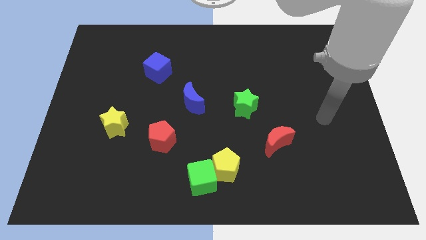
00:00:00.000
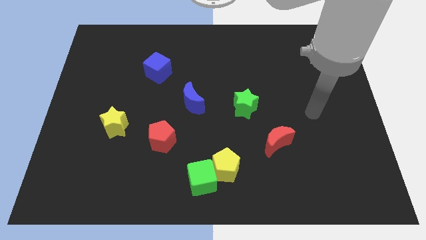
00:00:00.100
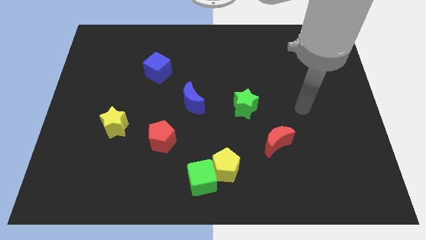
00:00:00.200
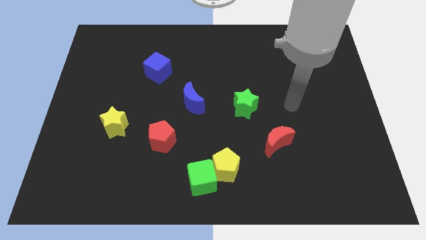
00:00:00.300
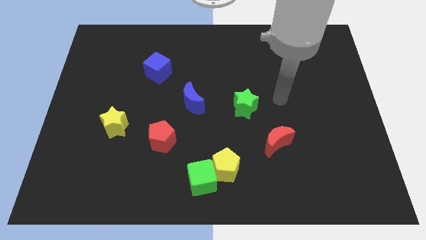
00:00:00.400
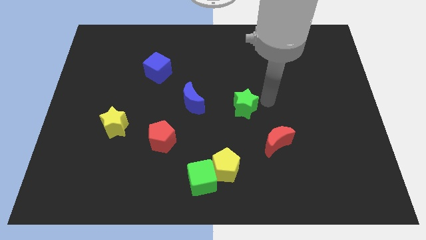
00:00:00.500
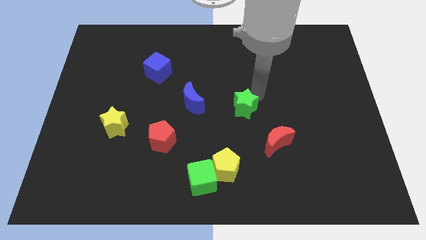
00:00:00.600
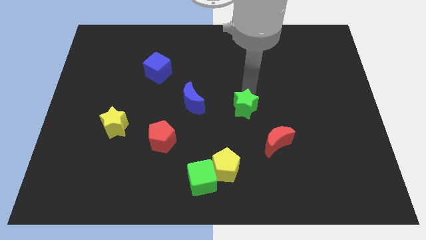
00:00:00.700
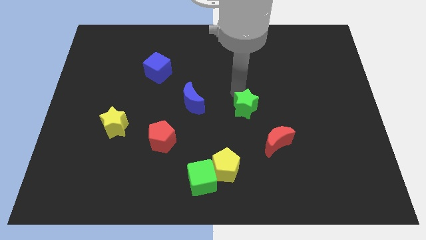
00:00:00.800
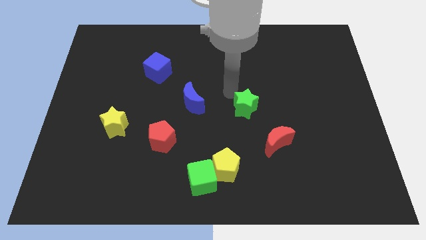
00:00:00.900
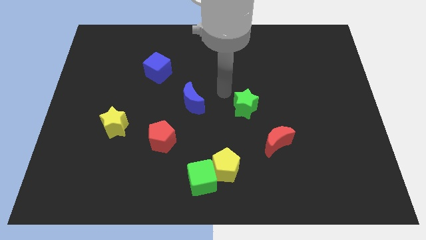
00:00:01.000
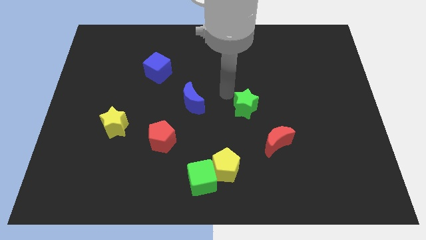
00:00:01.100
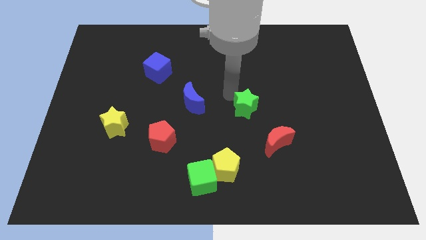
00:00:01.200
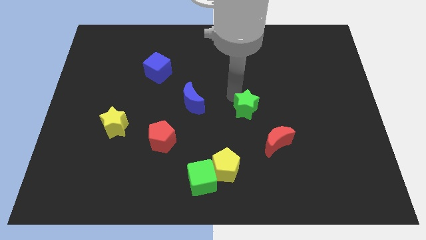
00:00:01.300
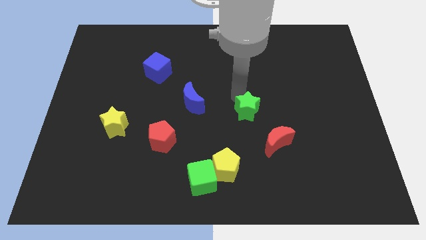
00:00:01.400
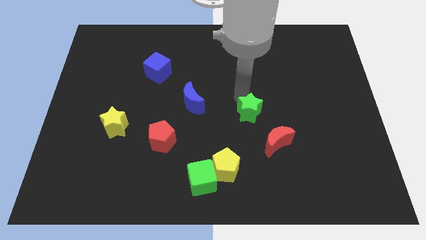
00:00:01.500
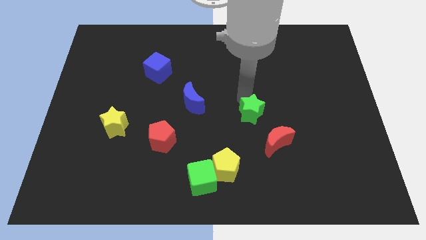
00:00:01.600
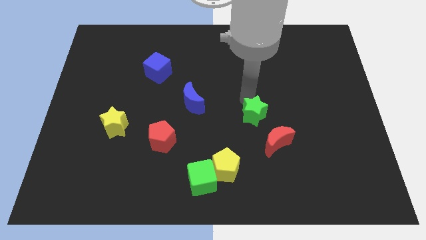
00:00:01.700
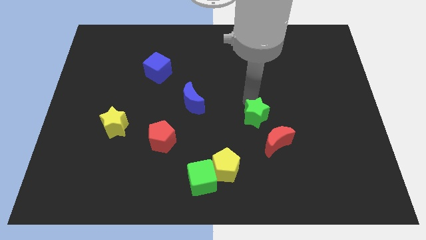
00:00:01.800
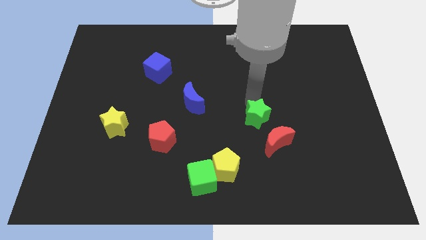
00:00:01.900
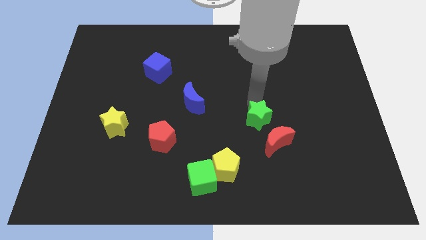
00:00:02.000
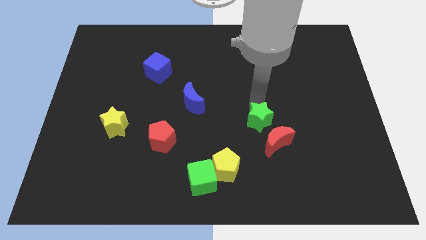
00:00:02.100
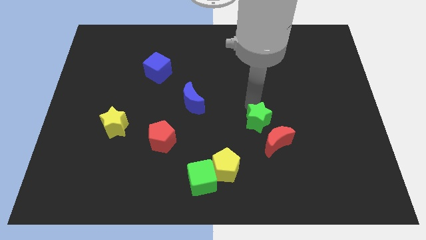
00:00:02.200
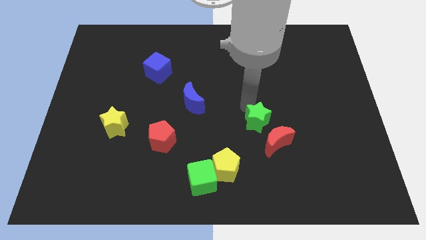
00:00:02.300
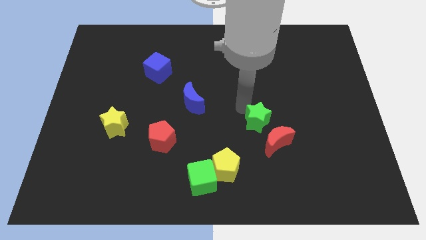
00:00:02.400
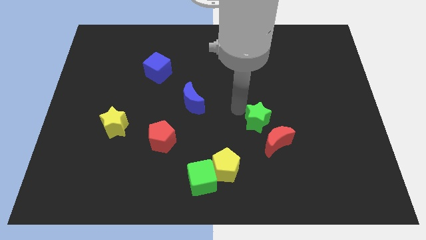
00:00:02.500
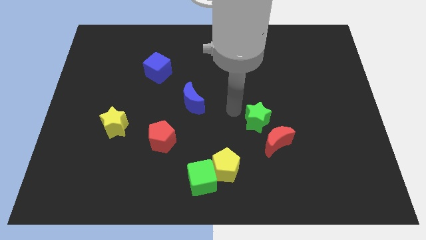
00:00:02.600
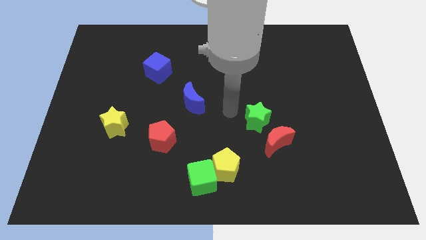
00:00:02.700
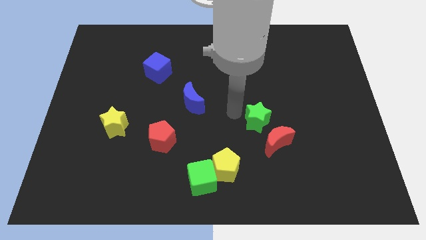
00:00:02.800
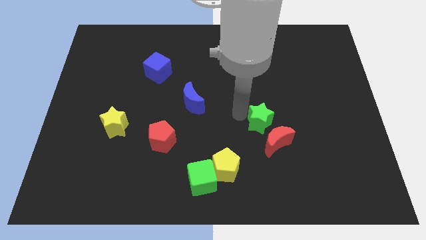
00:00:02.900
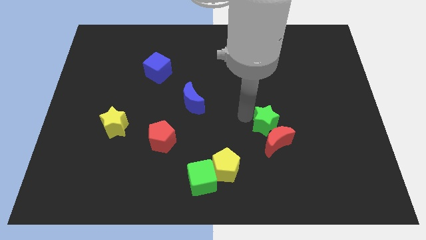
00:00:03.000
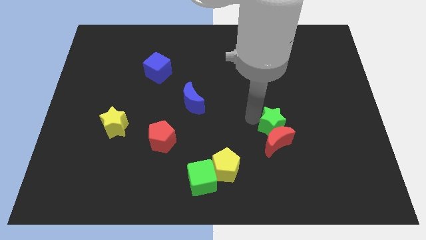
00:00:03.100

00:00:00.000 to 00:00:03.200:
push the green star a bit downwards and right

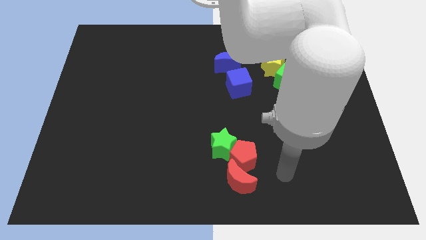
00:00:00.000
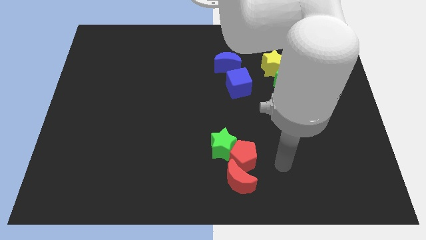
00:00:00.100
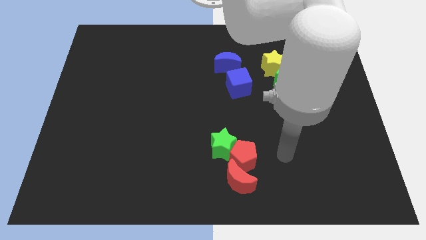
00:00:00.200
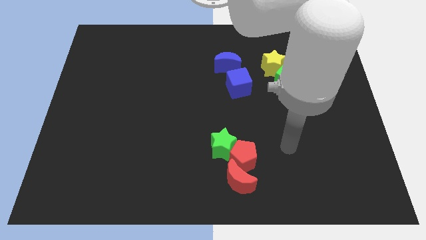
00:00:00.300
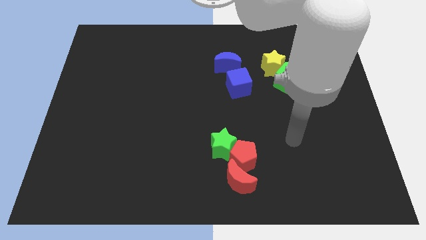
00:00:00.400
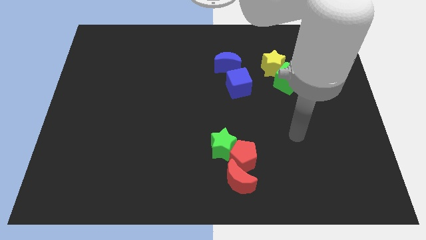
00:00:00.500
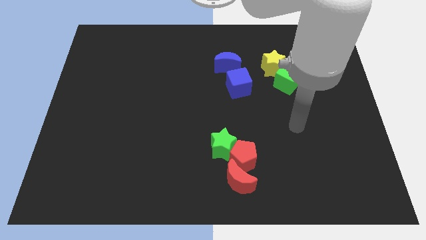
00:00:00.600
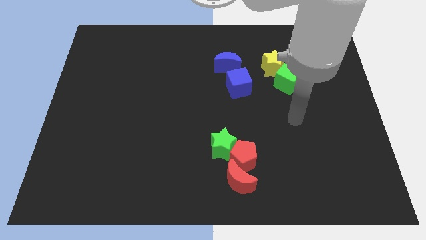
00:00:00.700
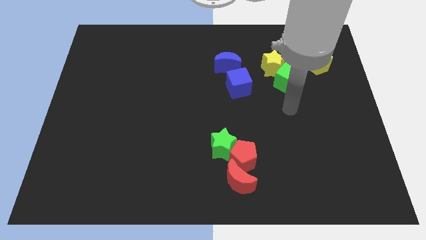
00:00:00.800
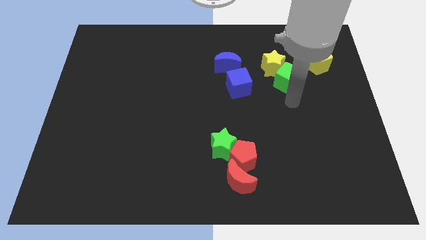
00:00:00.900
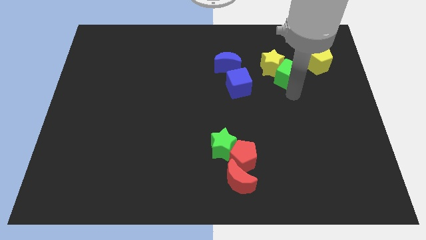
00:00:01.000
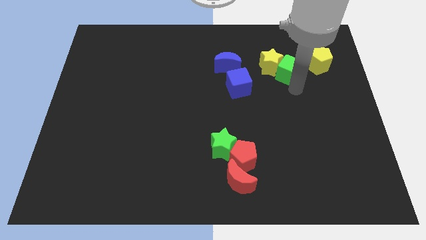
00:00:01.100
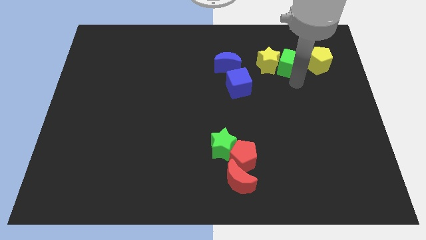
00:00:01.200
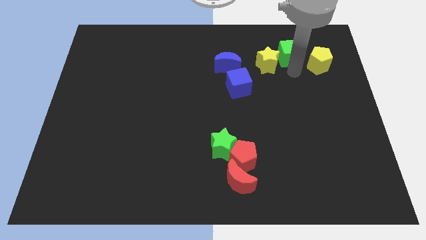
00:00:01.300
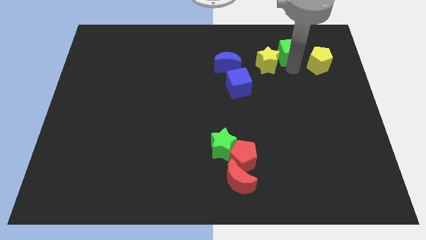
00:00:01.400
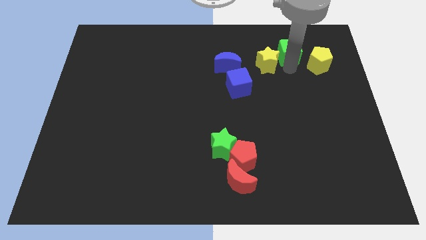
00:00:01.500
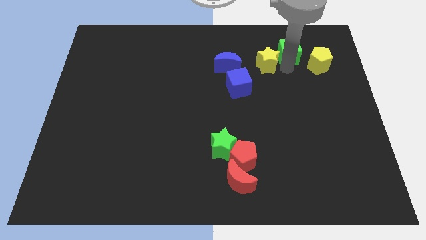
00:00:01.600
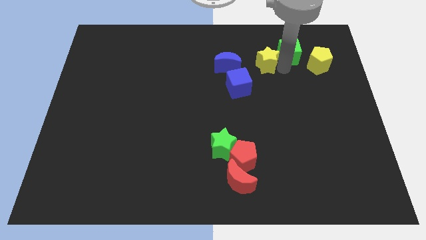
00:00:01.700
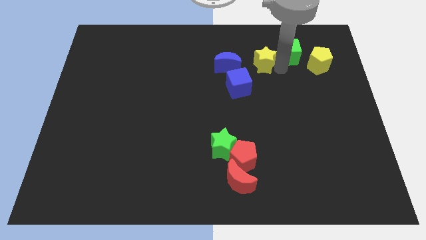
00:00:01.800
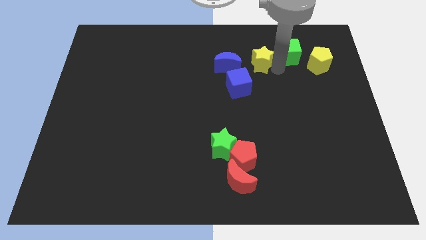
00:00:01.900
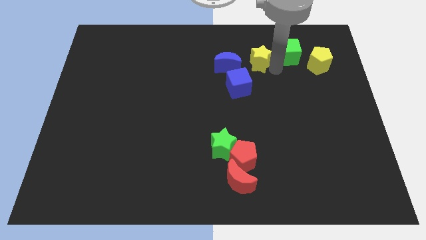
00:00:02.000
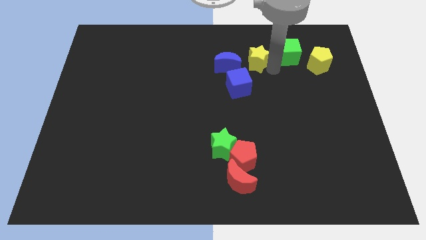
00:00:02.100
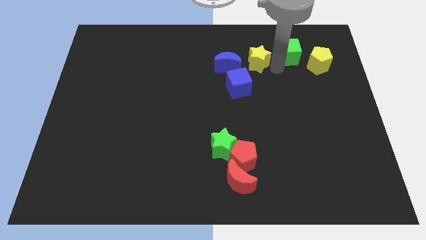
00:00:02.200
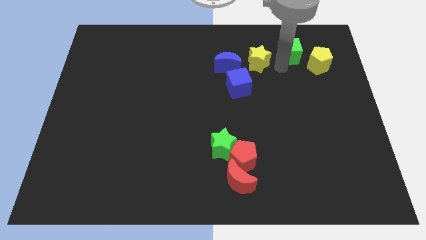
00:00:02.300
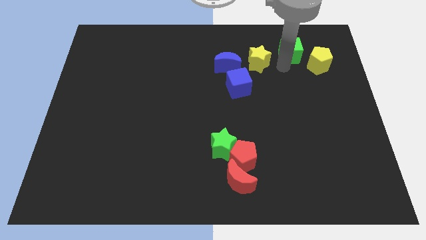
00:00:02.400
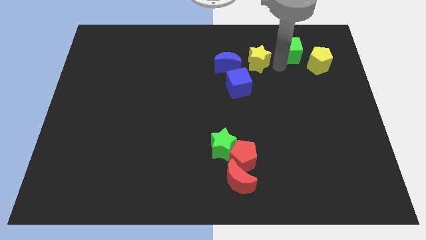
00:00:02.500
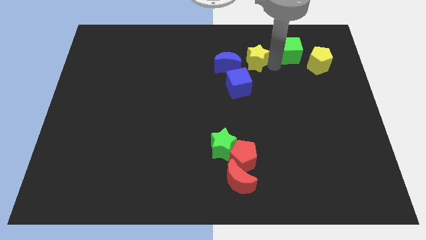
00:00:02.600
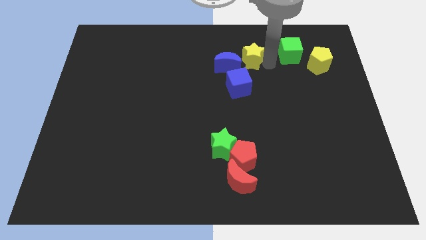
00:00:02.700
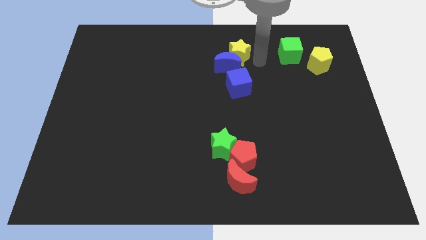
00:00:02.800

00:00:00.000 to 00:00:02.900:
slightly move the yellow star to the left

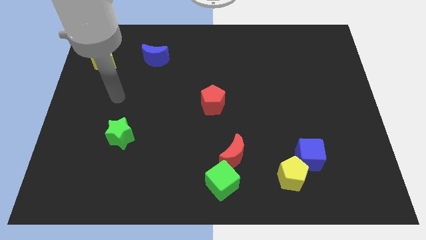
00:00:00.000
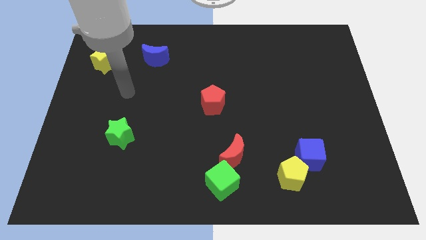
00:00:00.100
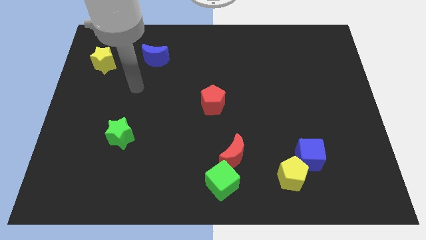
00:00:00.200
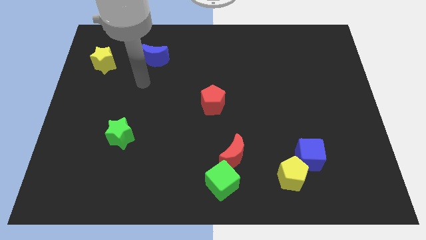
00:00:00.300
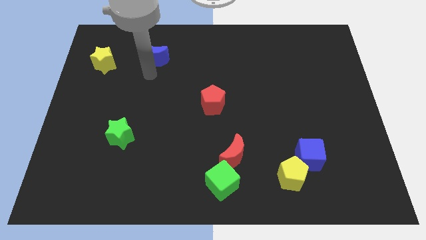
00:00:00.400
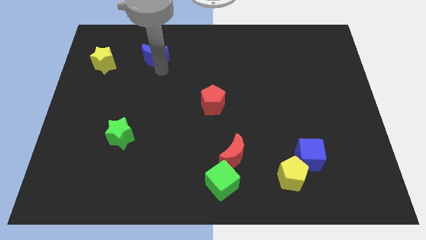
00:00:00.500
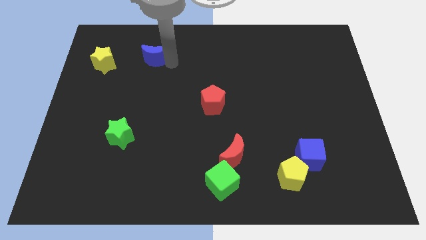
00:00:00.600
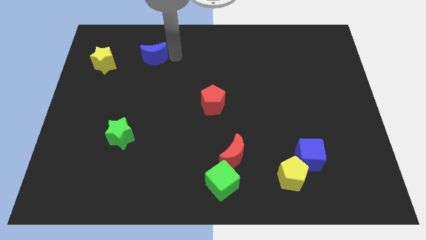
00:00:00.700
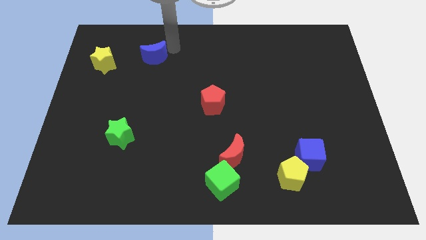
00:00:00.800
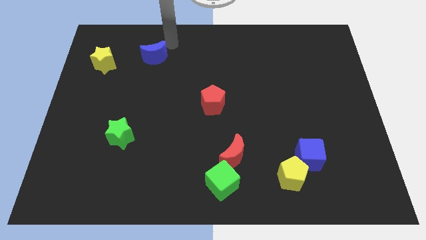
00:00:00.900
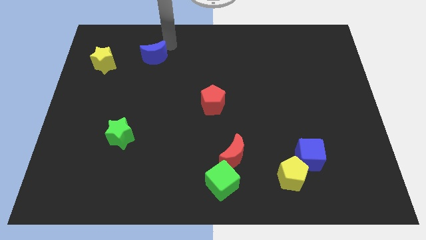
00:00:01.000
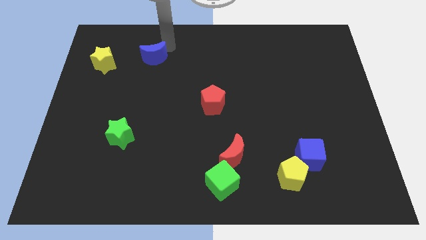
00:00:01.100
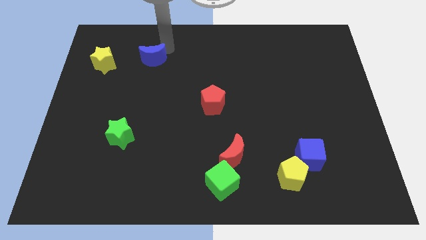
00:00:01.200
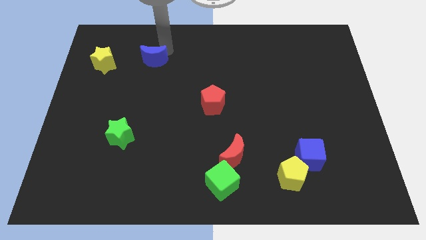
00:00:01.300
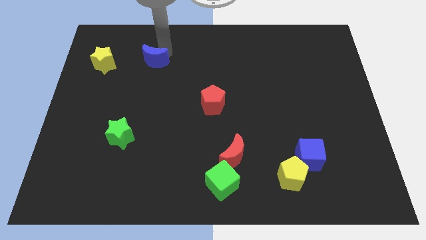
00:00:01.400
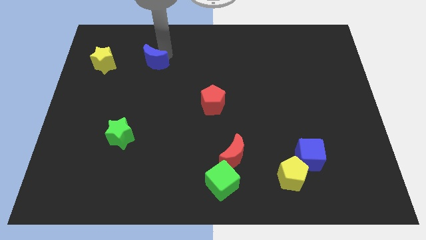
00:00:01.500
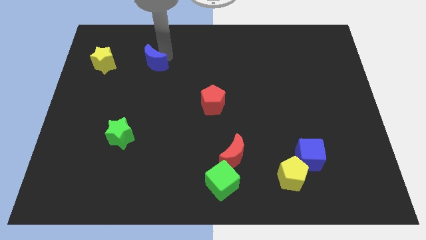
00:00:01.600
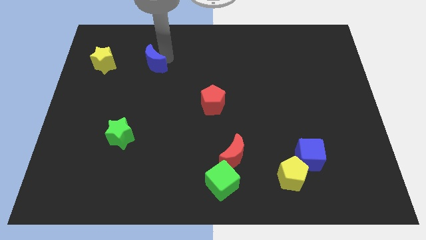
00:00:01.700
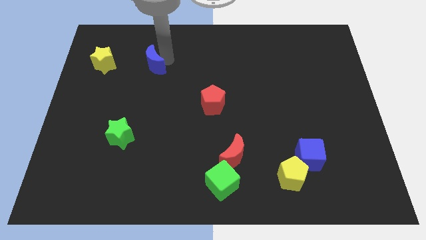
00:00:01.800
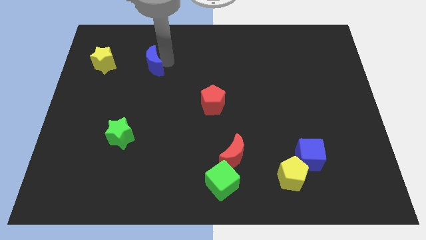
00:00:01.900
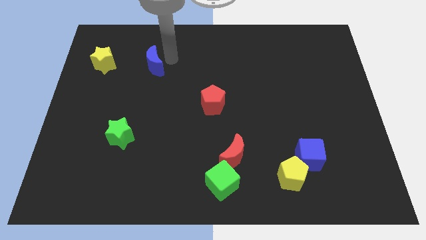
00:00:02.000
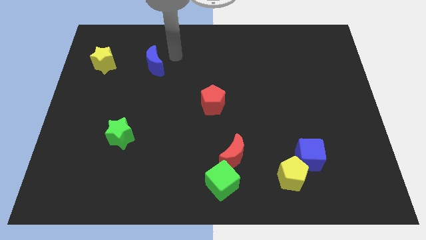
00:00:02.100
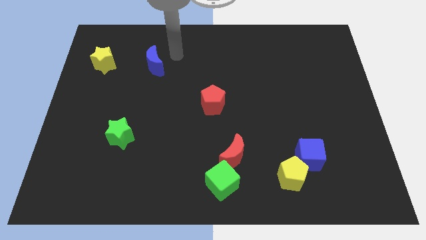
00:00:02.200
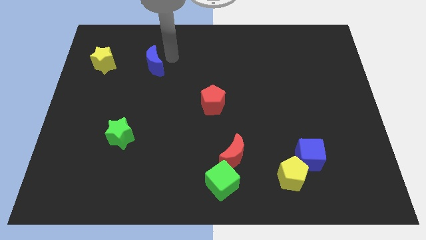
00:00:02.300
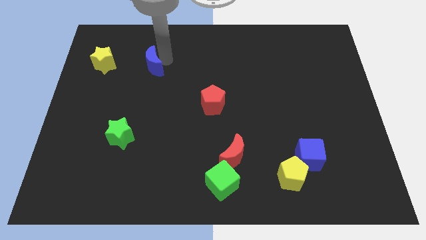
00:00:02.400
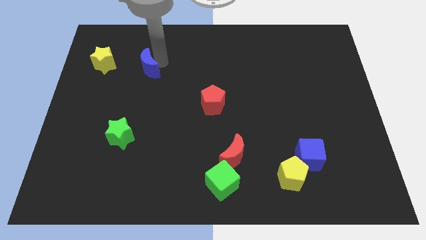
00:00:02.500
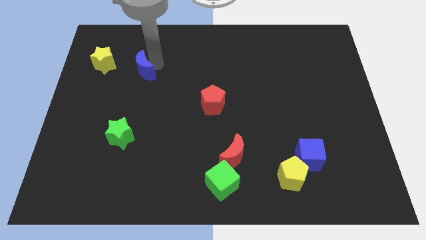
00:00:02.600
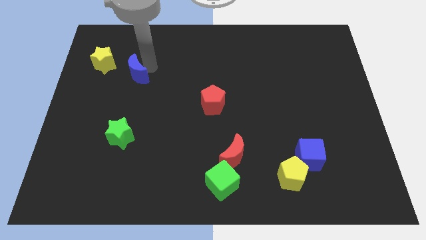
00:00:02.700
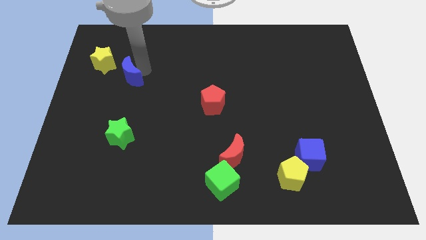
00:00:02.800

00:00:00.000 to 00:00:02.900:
move the blue moon down and then to the left somewhat
